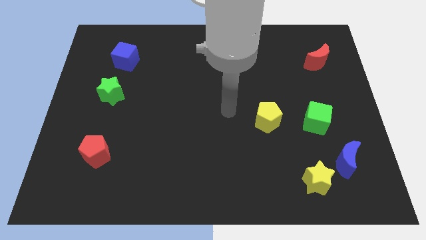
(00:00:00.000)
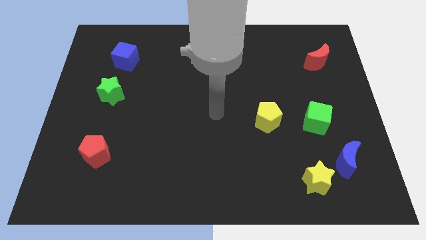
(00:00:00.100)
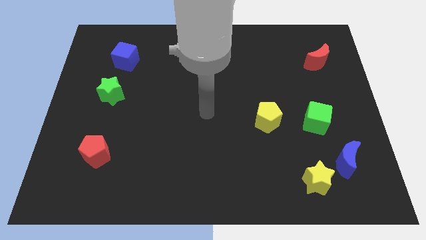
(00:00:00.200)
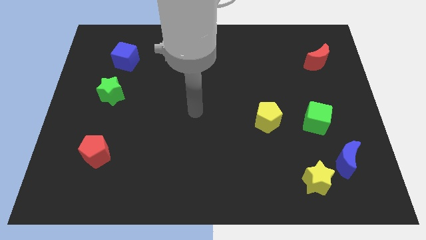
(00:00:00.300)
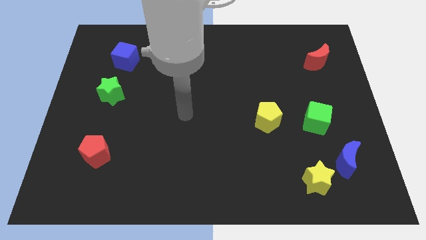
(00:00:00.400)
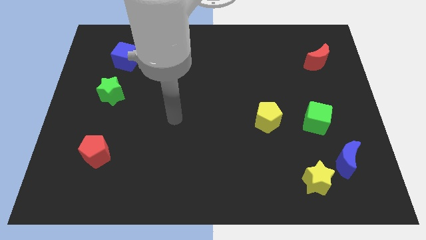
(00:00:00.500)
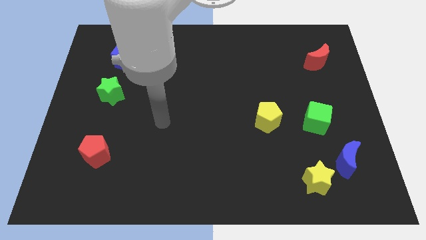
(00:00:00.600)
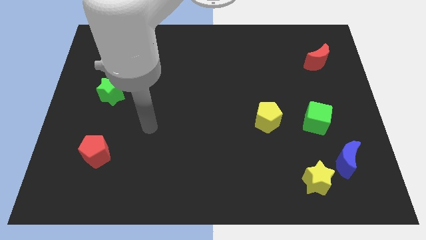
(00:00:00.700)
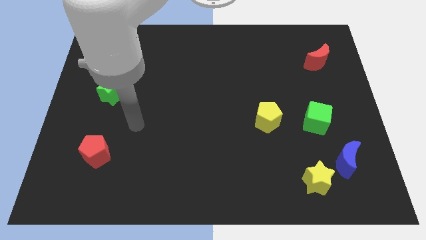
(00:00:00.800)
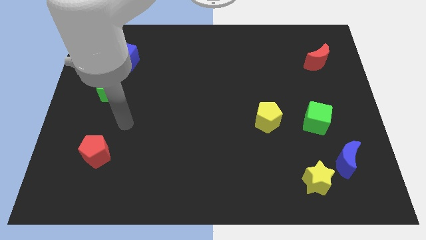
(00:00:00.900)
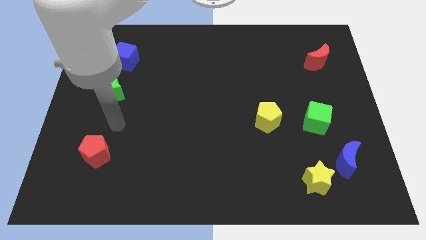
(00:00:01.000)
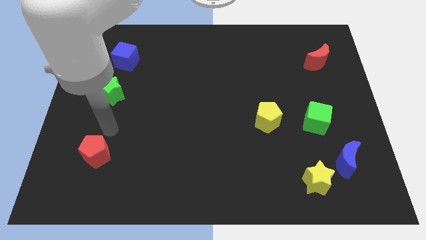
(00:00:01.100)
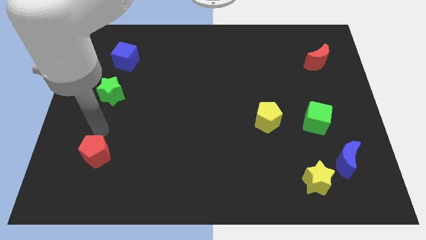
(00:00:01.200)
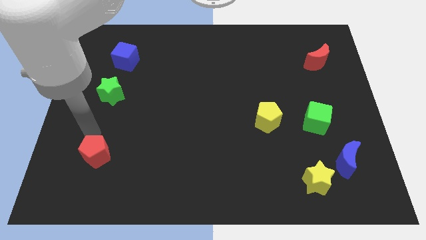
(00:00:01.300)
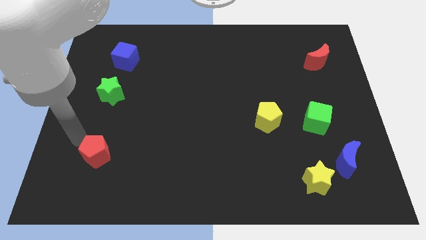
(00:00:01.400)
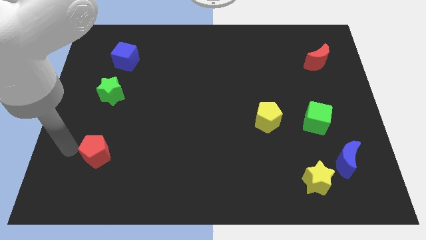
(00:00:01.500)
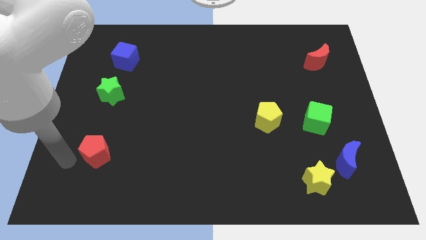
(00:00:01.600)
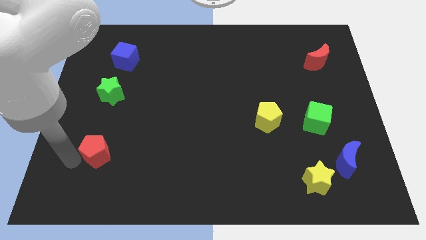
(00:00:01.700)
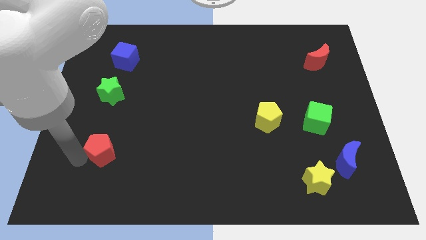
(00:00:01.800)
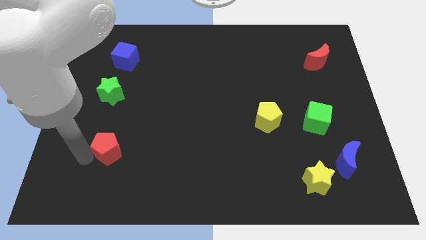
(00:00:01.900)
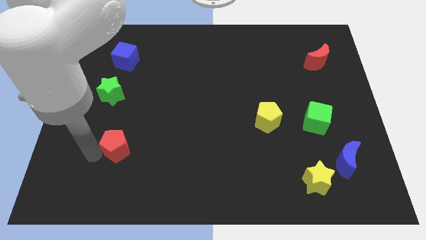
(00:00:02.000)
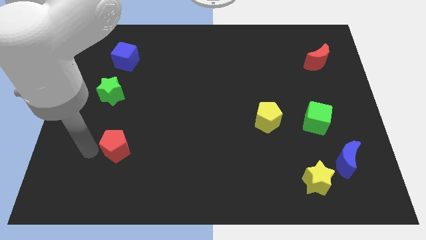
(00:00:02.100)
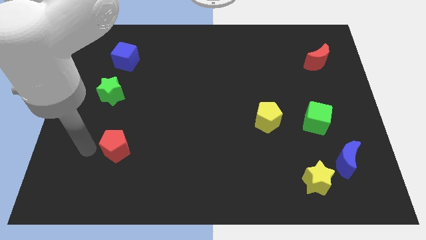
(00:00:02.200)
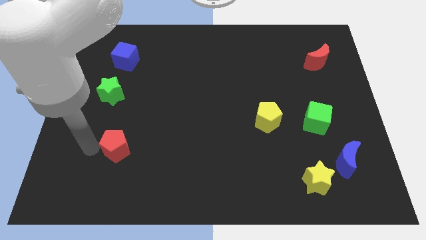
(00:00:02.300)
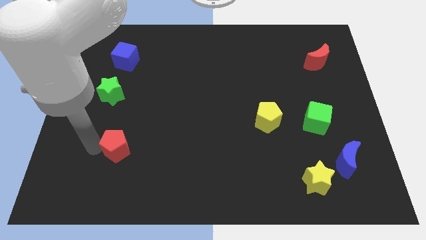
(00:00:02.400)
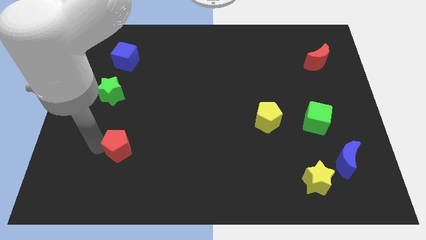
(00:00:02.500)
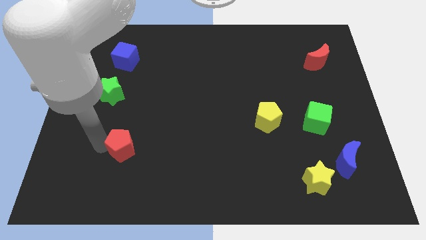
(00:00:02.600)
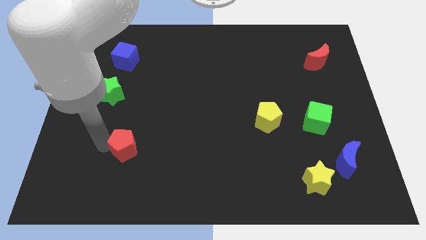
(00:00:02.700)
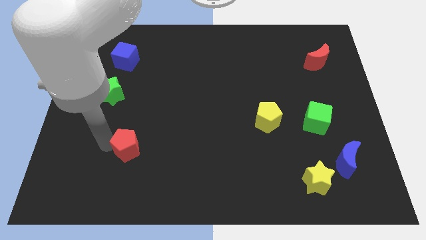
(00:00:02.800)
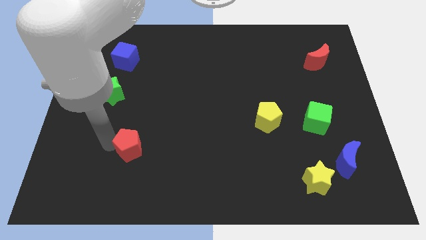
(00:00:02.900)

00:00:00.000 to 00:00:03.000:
slide the red pentagon a little to the right

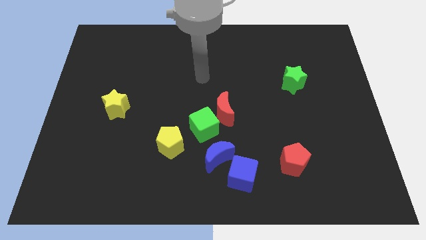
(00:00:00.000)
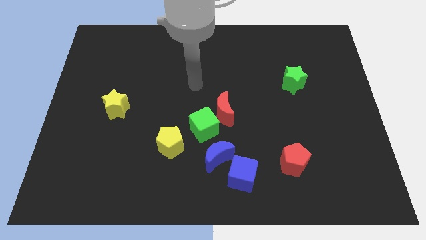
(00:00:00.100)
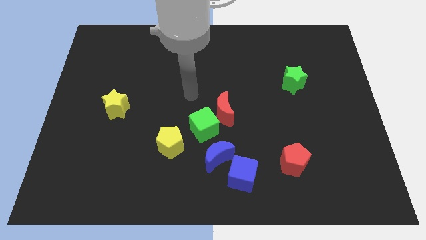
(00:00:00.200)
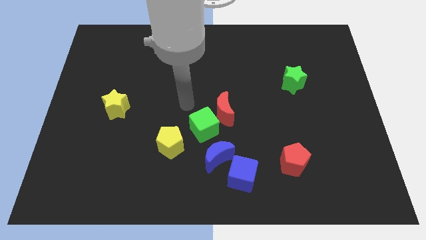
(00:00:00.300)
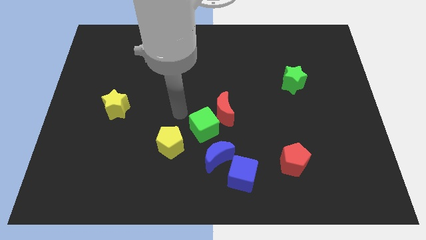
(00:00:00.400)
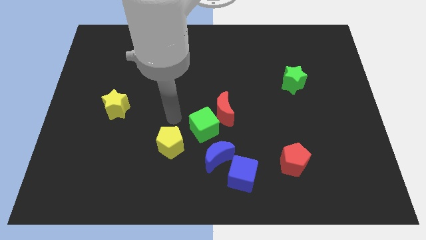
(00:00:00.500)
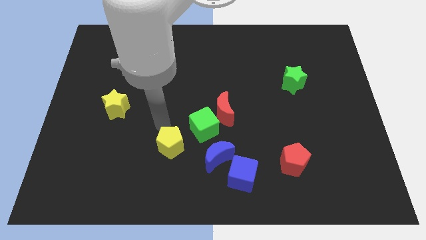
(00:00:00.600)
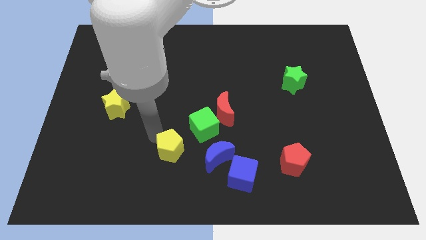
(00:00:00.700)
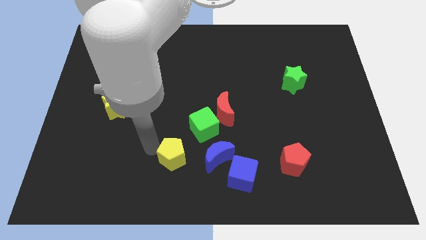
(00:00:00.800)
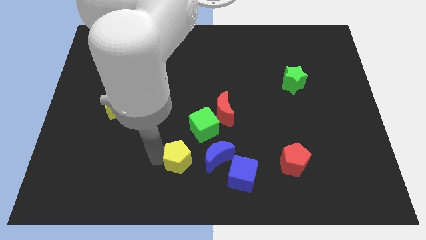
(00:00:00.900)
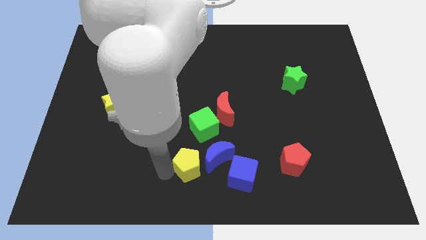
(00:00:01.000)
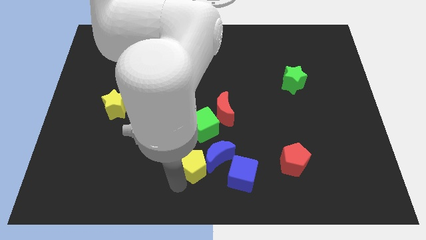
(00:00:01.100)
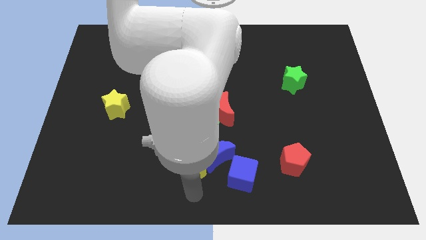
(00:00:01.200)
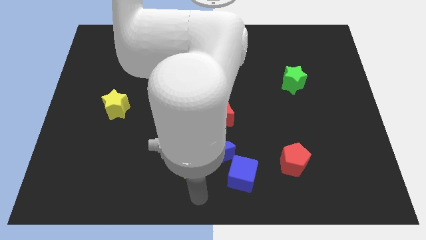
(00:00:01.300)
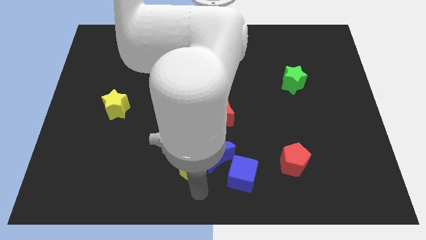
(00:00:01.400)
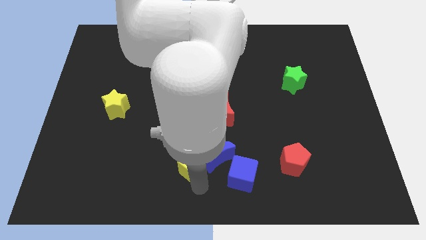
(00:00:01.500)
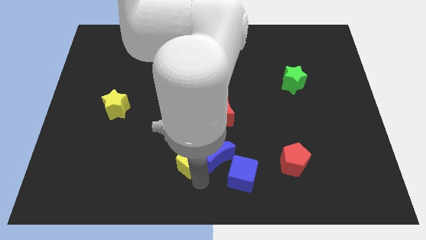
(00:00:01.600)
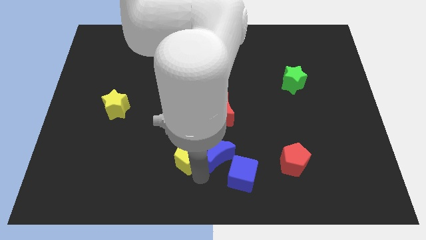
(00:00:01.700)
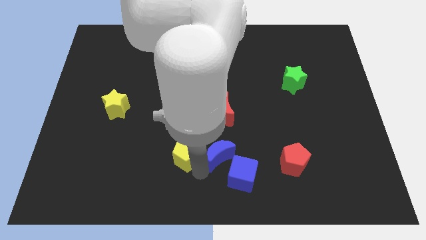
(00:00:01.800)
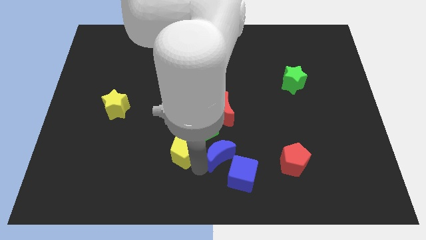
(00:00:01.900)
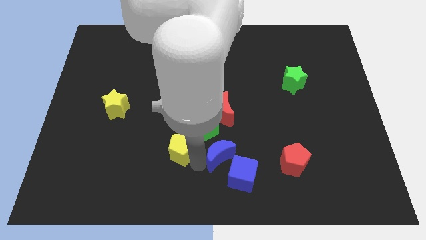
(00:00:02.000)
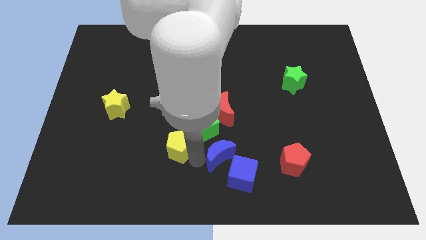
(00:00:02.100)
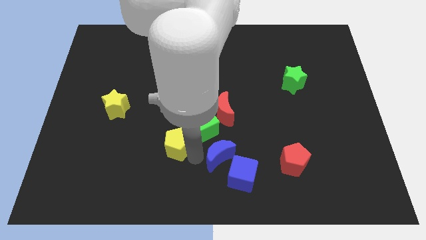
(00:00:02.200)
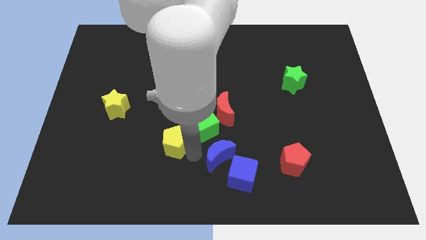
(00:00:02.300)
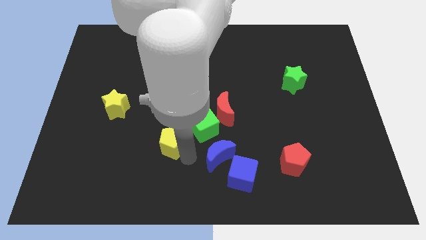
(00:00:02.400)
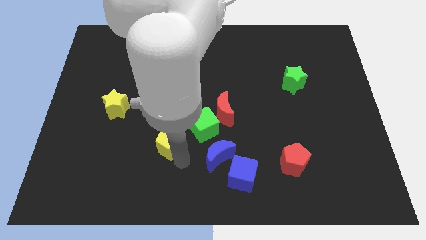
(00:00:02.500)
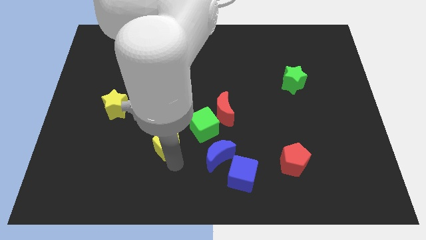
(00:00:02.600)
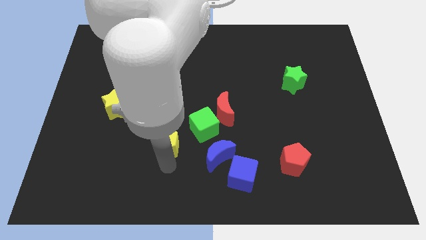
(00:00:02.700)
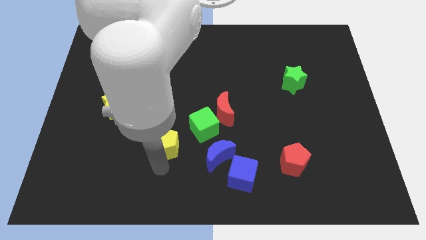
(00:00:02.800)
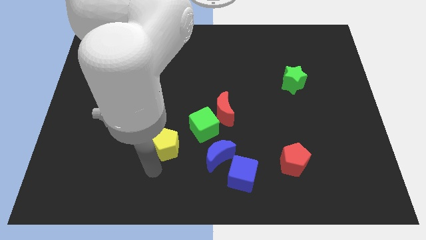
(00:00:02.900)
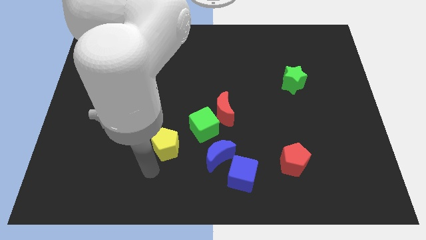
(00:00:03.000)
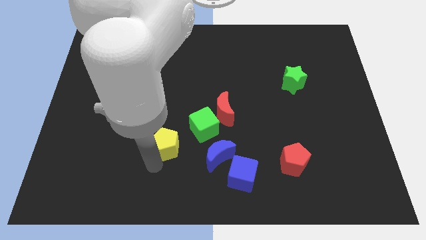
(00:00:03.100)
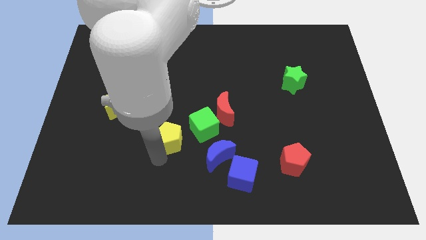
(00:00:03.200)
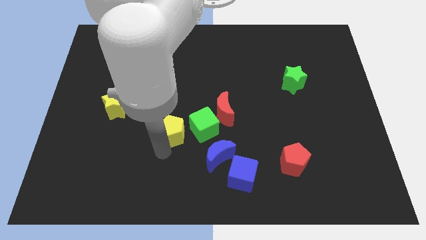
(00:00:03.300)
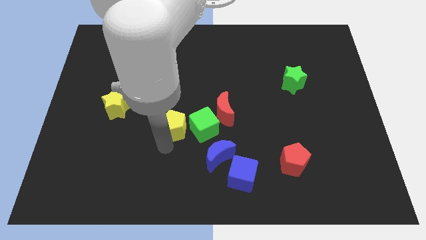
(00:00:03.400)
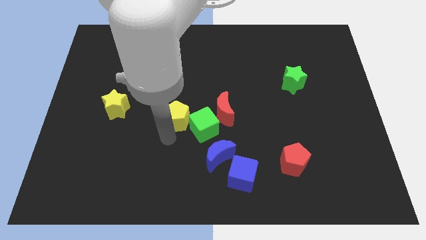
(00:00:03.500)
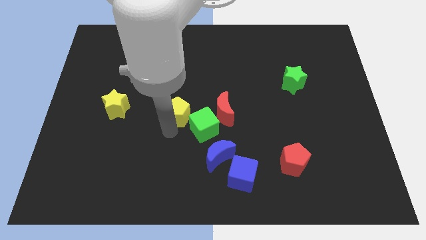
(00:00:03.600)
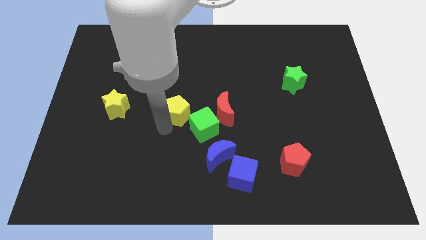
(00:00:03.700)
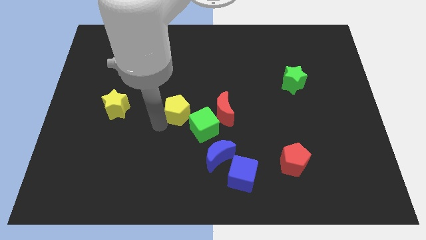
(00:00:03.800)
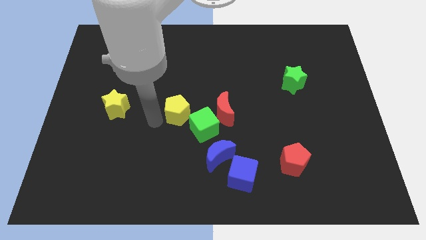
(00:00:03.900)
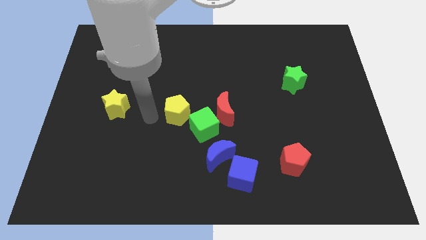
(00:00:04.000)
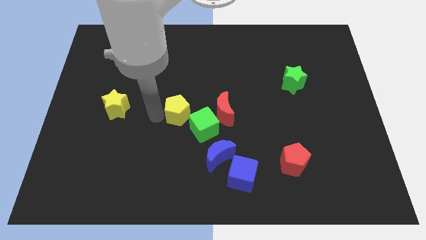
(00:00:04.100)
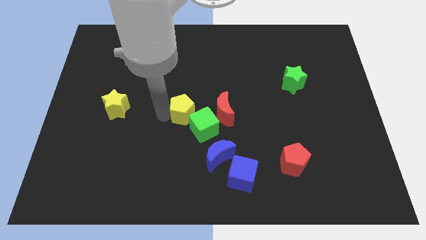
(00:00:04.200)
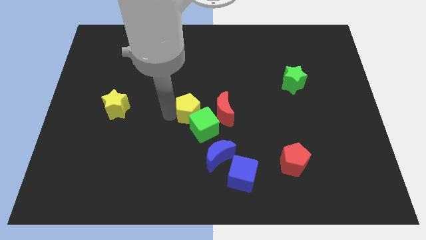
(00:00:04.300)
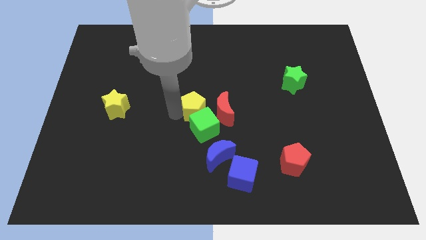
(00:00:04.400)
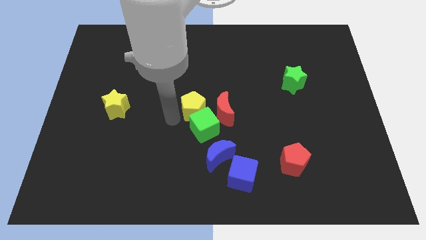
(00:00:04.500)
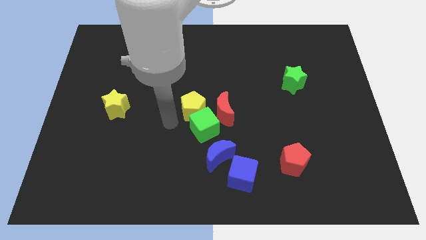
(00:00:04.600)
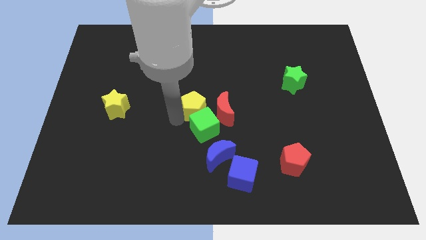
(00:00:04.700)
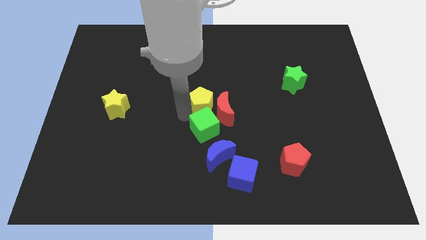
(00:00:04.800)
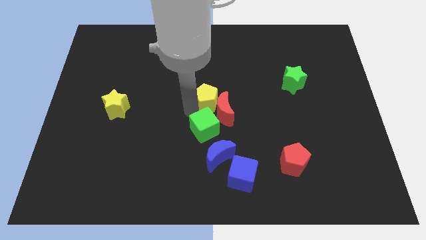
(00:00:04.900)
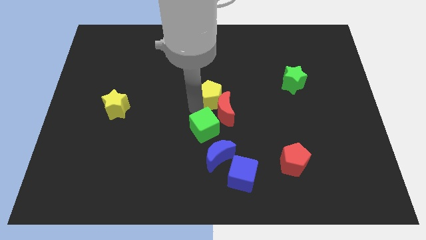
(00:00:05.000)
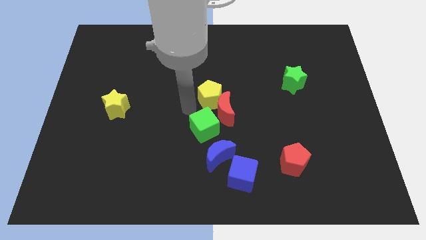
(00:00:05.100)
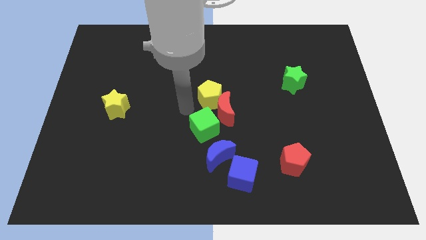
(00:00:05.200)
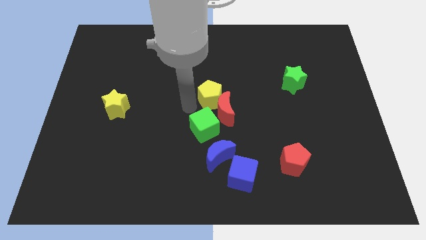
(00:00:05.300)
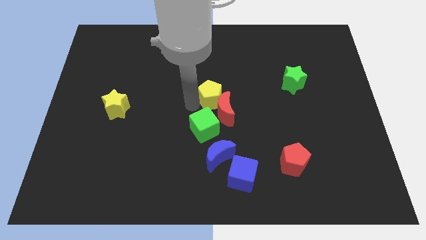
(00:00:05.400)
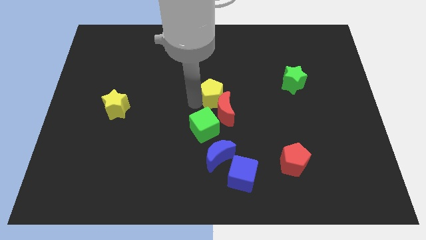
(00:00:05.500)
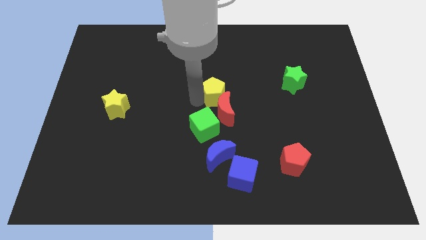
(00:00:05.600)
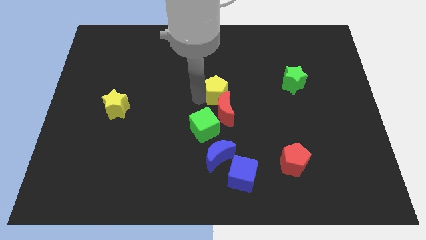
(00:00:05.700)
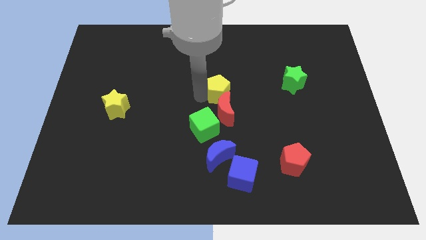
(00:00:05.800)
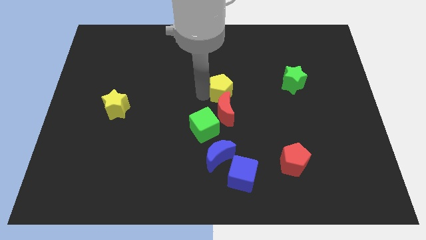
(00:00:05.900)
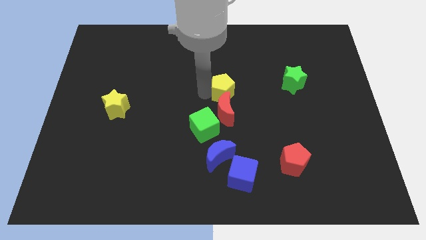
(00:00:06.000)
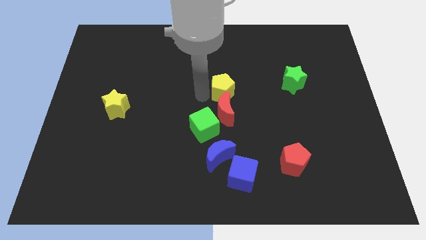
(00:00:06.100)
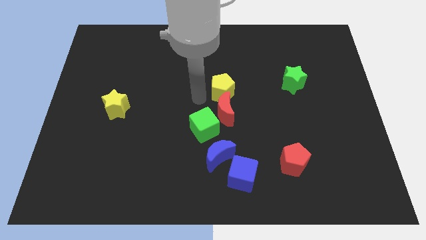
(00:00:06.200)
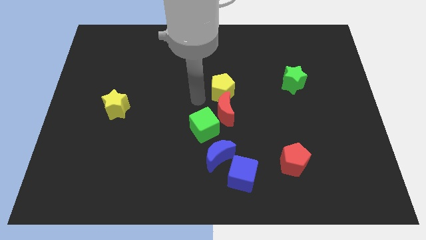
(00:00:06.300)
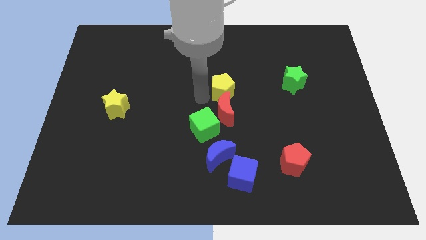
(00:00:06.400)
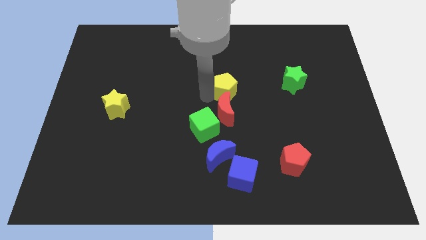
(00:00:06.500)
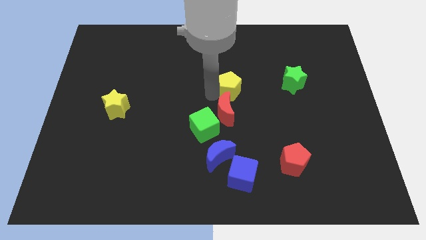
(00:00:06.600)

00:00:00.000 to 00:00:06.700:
move the yellow pentagon up and then to the right
